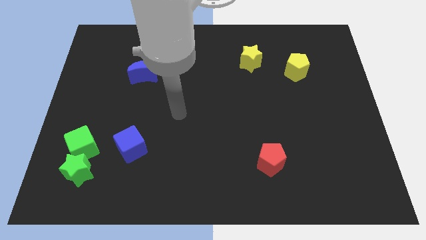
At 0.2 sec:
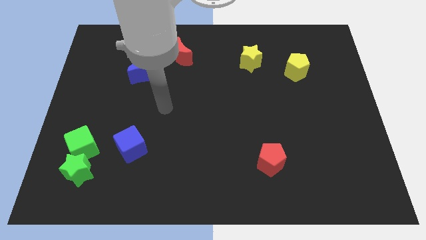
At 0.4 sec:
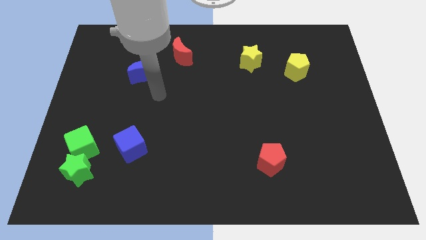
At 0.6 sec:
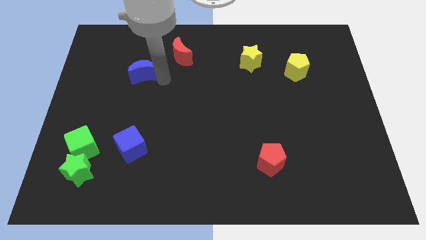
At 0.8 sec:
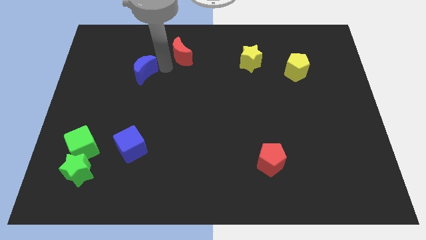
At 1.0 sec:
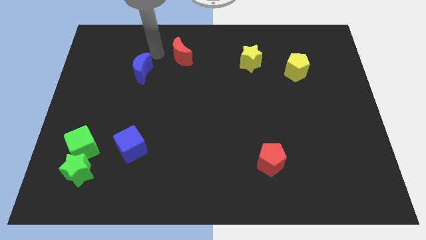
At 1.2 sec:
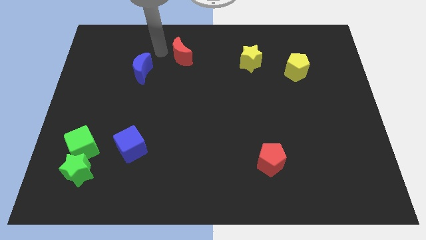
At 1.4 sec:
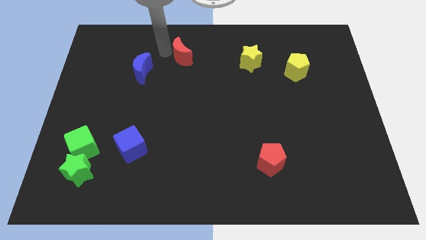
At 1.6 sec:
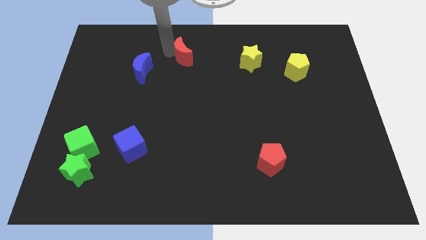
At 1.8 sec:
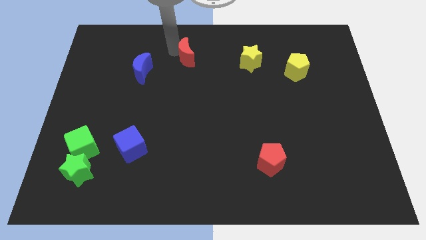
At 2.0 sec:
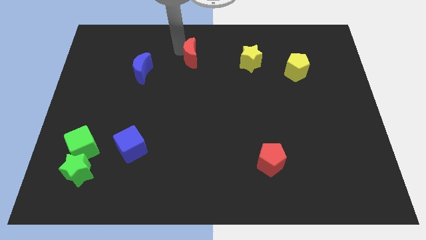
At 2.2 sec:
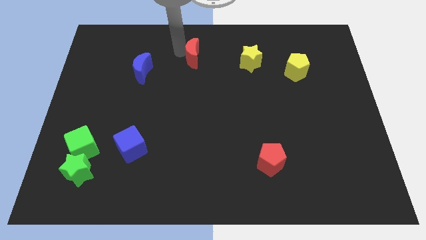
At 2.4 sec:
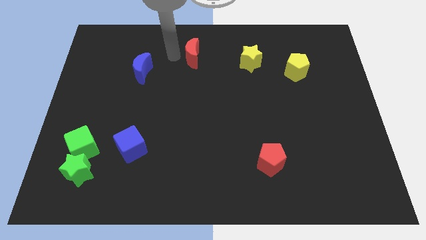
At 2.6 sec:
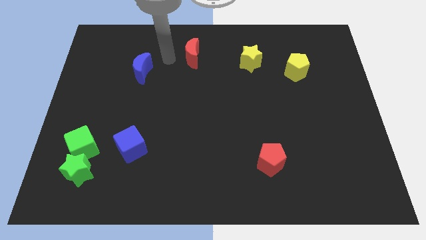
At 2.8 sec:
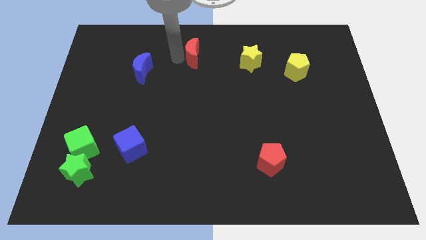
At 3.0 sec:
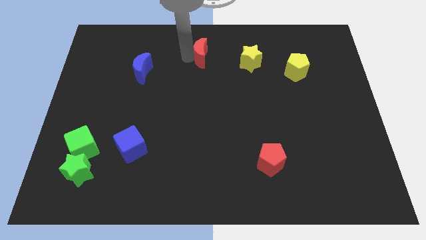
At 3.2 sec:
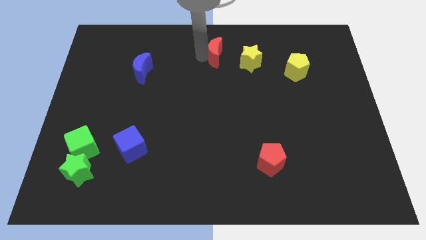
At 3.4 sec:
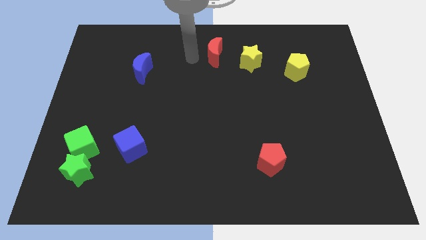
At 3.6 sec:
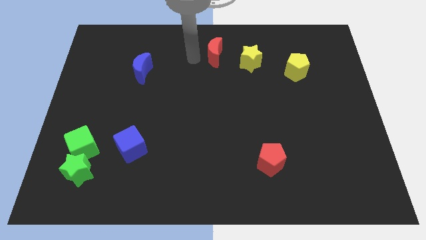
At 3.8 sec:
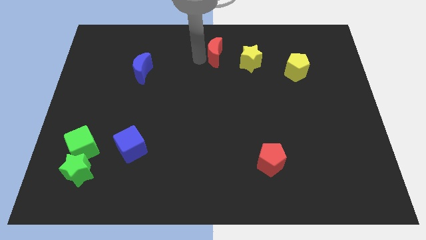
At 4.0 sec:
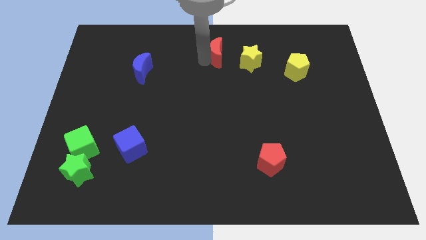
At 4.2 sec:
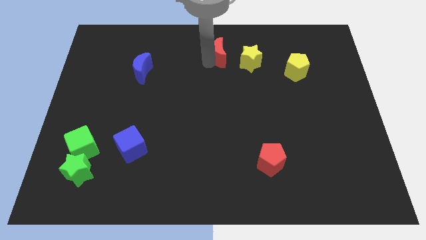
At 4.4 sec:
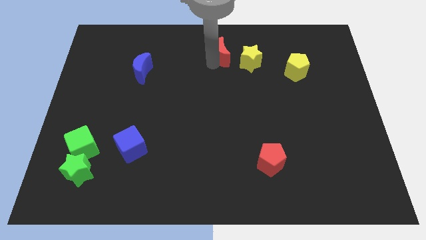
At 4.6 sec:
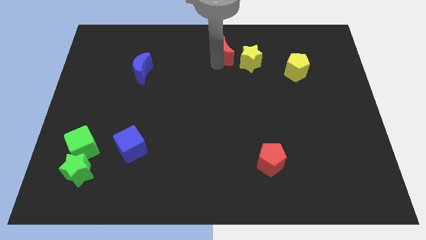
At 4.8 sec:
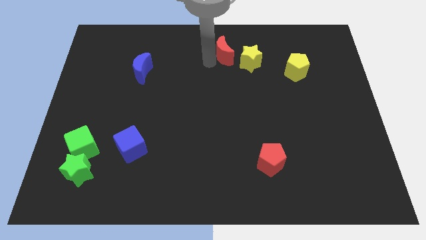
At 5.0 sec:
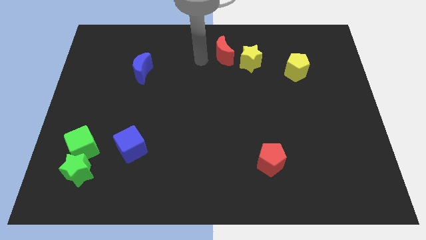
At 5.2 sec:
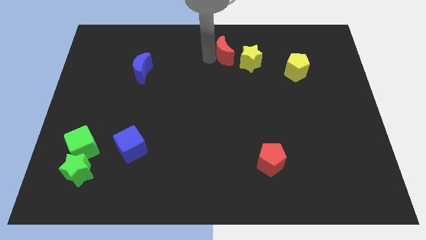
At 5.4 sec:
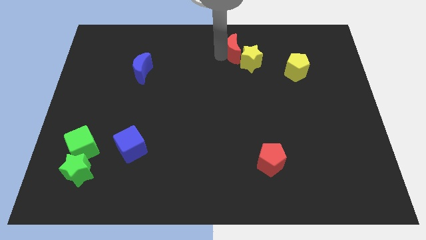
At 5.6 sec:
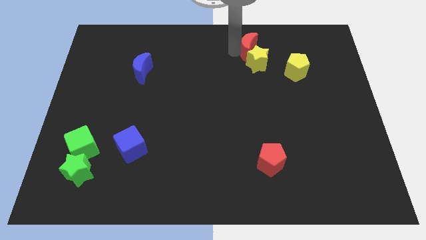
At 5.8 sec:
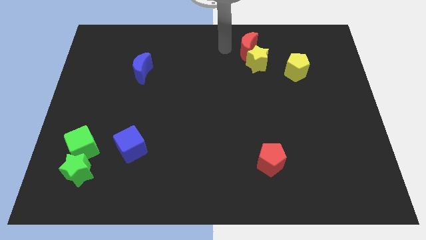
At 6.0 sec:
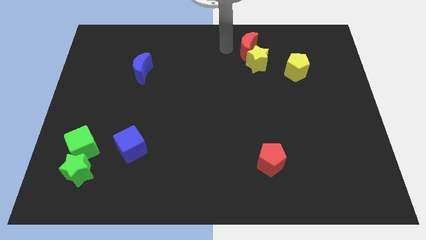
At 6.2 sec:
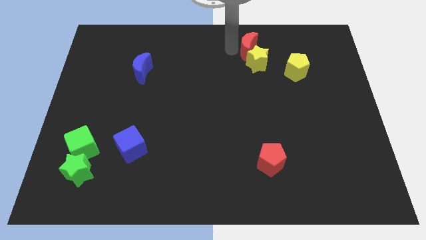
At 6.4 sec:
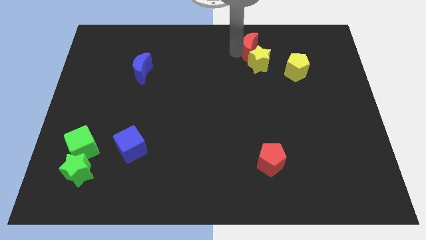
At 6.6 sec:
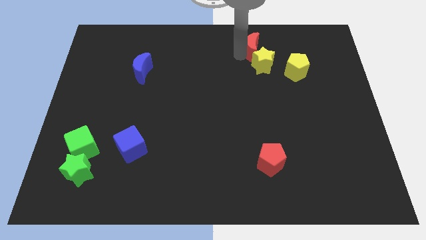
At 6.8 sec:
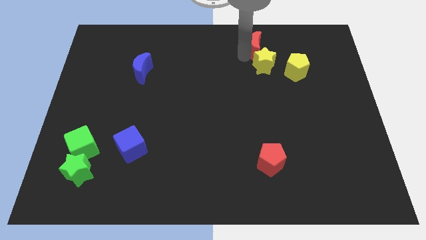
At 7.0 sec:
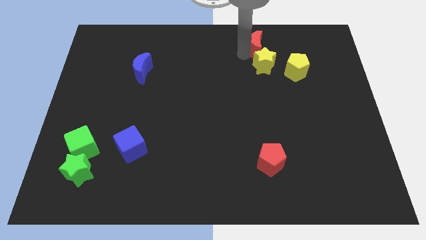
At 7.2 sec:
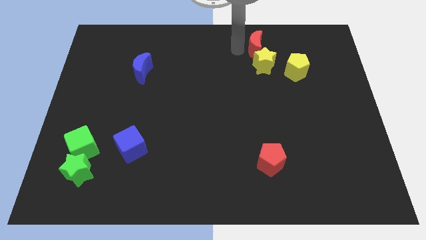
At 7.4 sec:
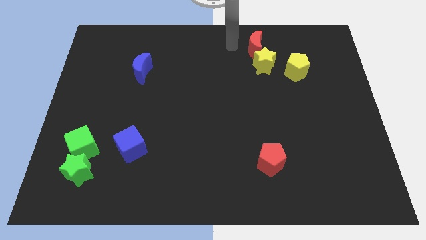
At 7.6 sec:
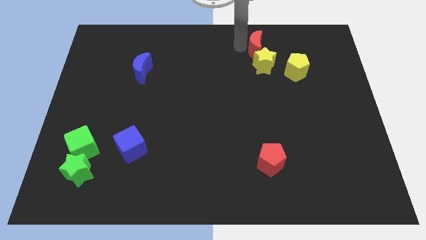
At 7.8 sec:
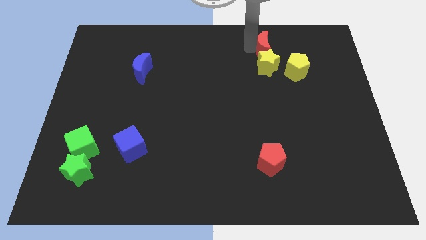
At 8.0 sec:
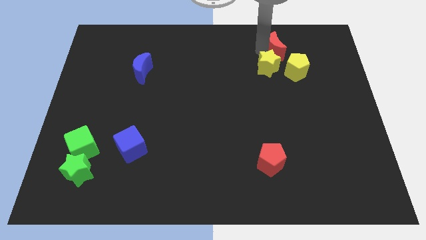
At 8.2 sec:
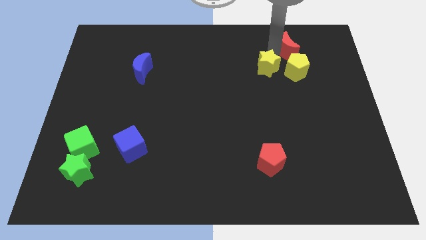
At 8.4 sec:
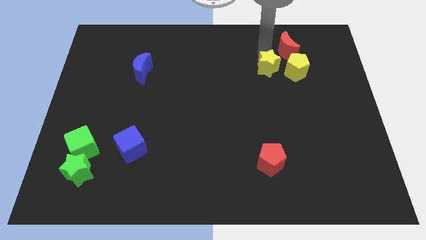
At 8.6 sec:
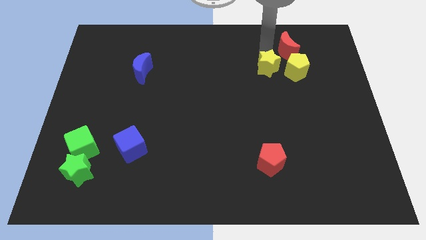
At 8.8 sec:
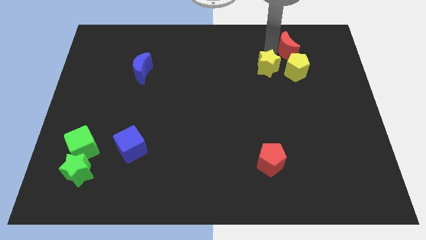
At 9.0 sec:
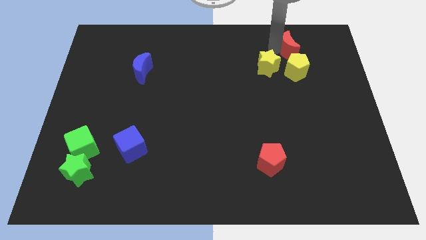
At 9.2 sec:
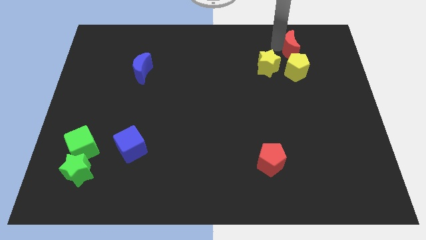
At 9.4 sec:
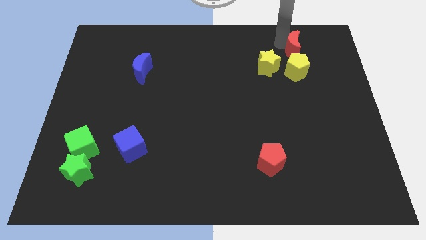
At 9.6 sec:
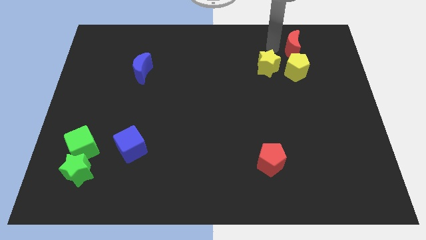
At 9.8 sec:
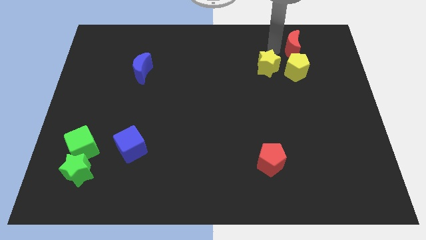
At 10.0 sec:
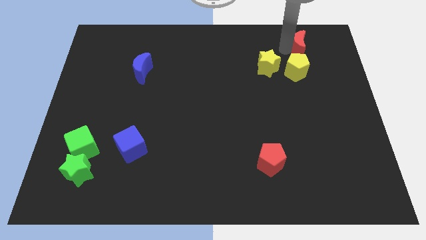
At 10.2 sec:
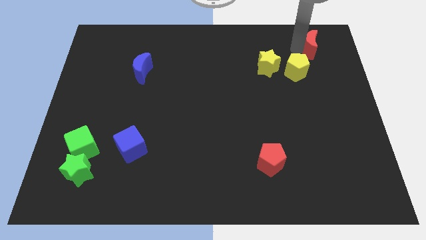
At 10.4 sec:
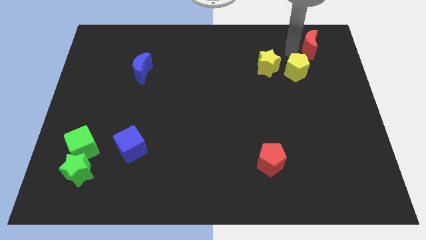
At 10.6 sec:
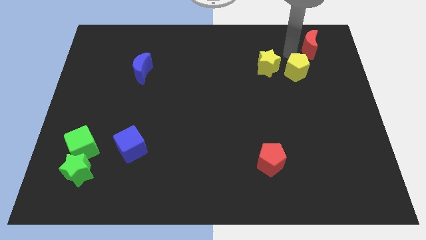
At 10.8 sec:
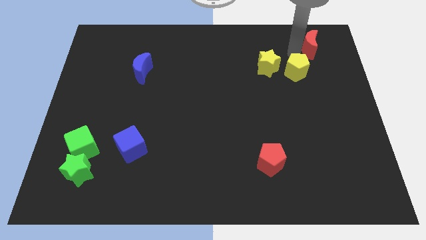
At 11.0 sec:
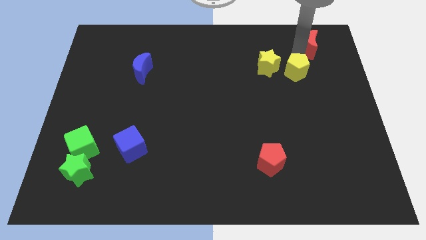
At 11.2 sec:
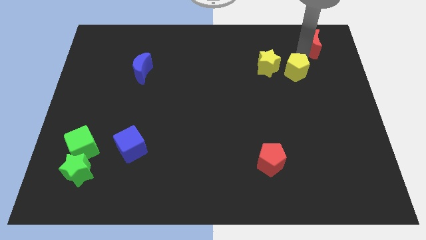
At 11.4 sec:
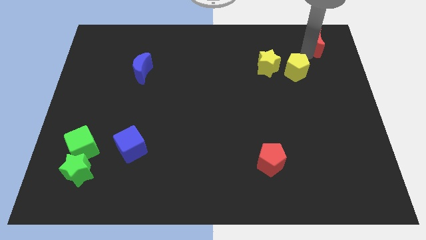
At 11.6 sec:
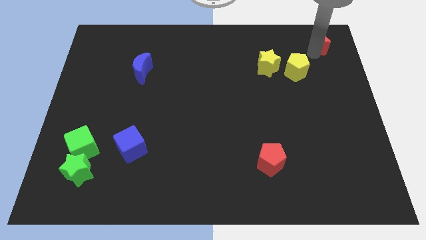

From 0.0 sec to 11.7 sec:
move the red moon to the top right

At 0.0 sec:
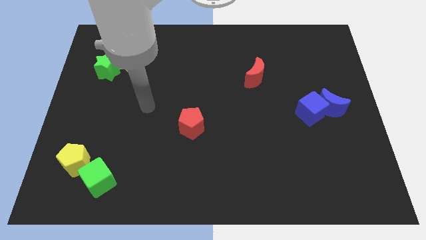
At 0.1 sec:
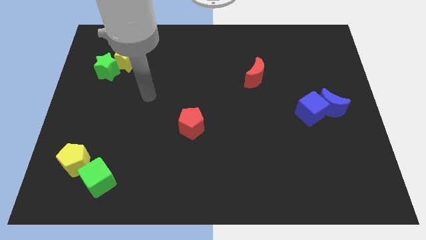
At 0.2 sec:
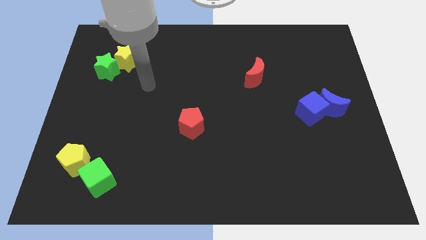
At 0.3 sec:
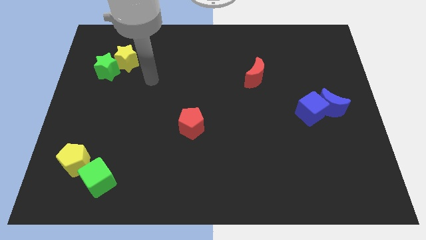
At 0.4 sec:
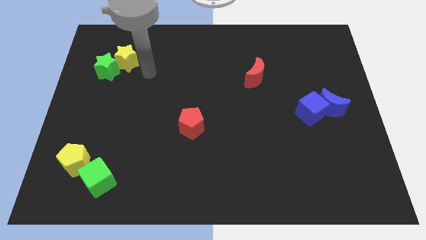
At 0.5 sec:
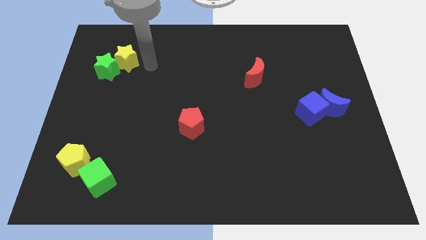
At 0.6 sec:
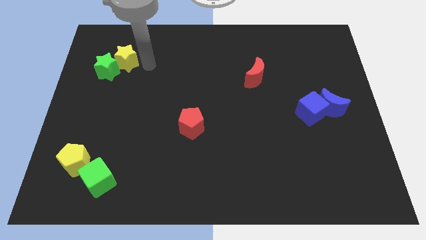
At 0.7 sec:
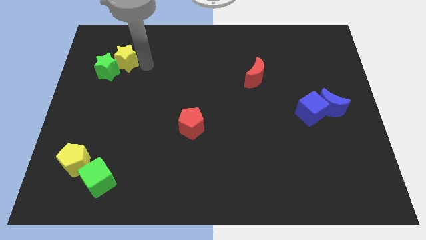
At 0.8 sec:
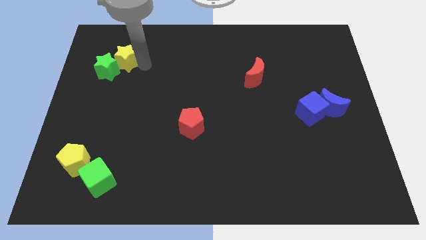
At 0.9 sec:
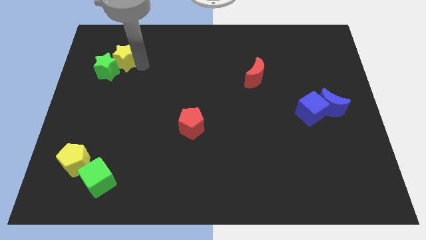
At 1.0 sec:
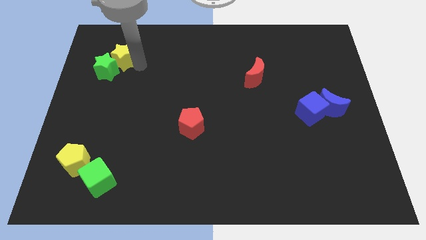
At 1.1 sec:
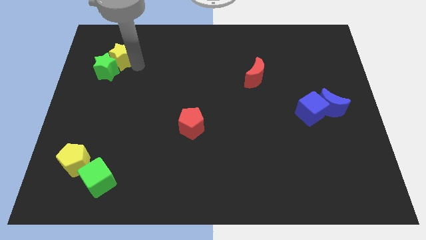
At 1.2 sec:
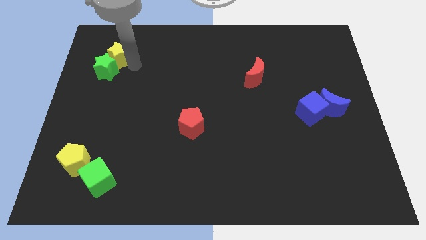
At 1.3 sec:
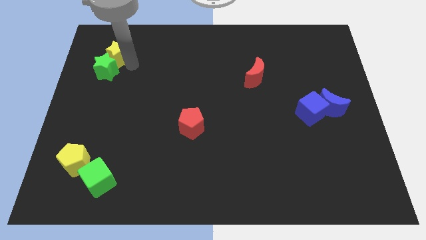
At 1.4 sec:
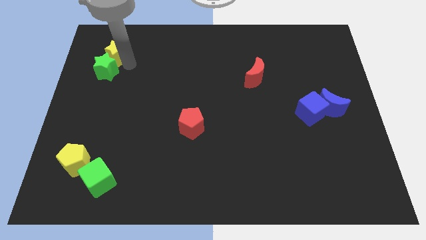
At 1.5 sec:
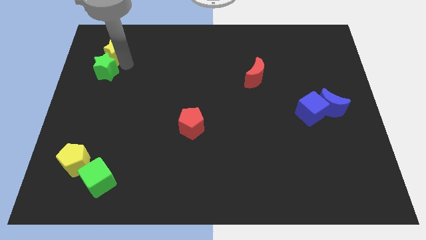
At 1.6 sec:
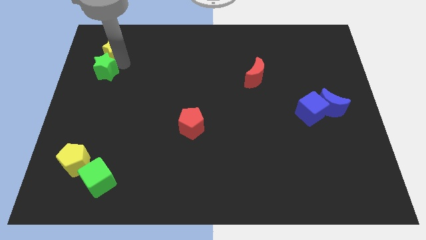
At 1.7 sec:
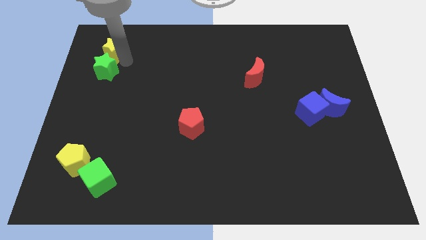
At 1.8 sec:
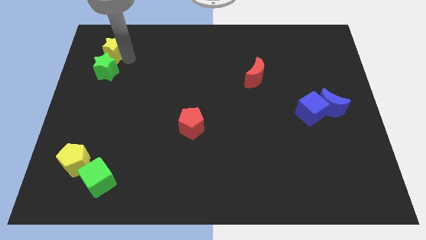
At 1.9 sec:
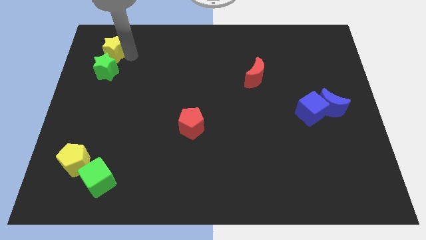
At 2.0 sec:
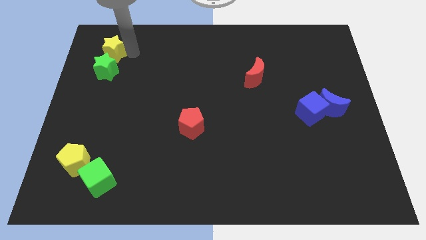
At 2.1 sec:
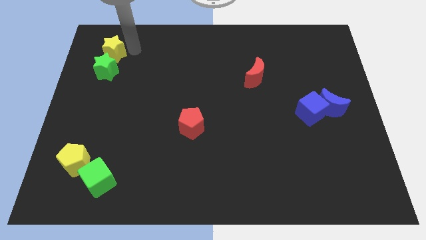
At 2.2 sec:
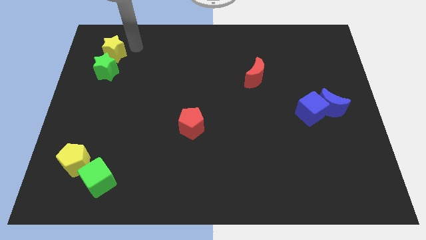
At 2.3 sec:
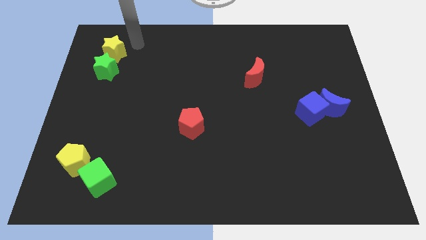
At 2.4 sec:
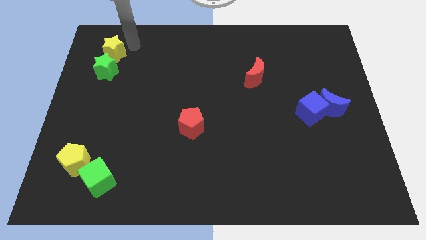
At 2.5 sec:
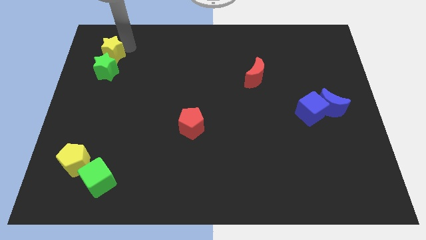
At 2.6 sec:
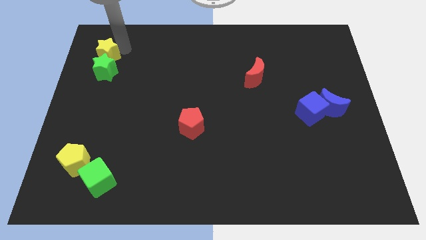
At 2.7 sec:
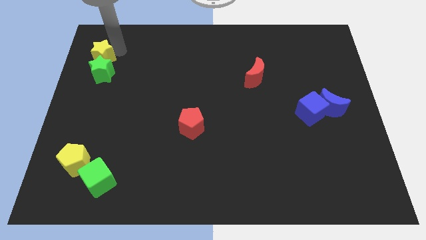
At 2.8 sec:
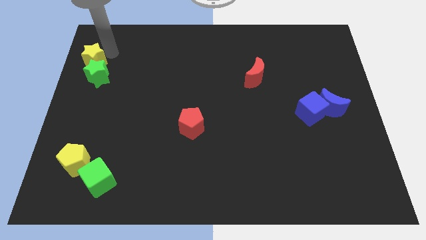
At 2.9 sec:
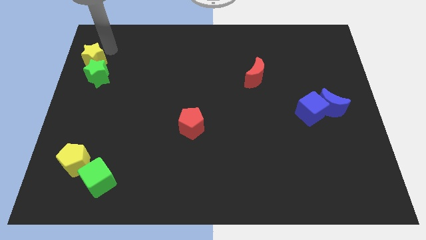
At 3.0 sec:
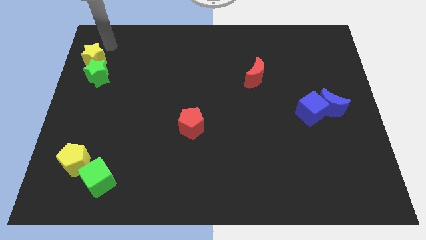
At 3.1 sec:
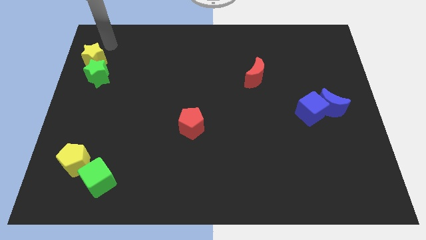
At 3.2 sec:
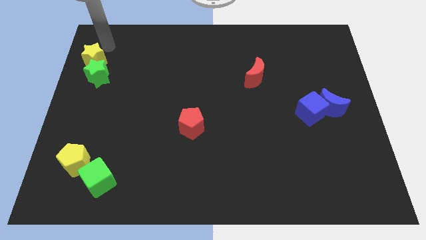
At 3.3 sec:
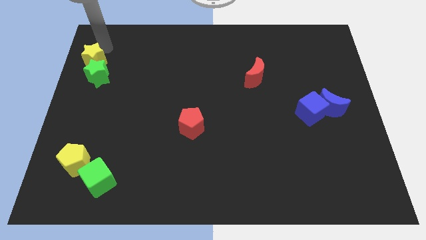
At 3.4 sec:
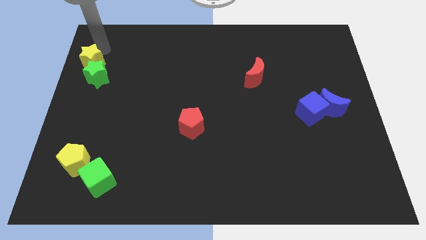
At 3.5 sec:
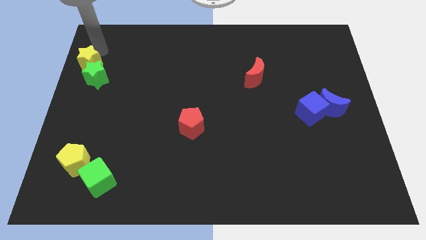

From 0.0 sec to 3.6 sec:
push the yellow star to the left side of the board
